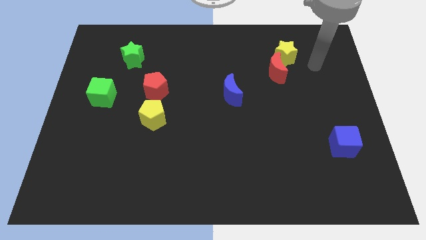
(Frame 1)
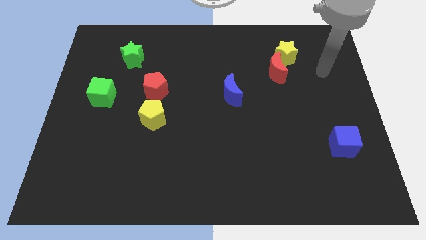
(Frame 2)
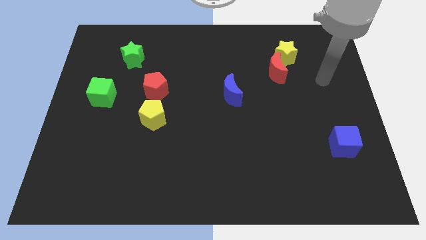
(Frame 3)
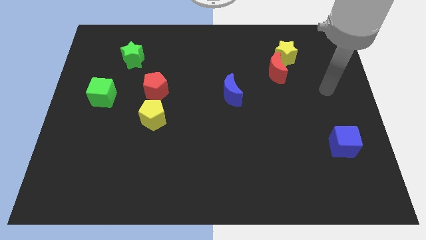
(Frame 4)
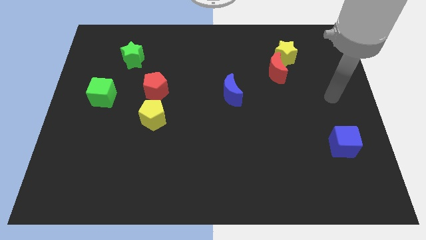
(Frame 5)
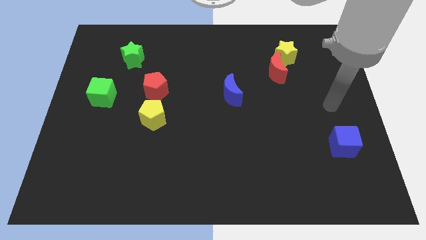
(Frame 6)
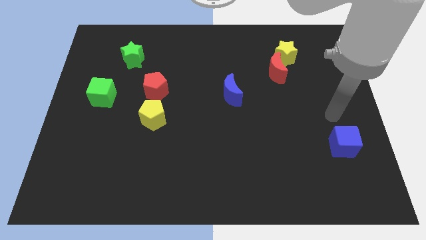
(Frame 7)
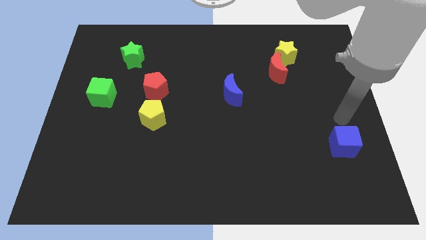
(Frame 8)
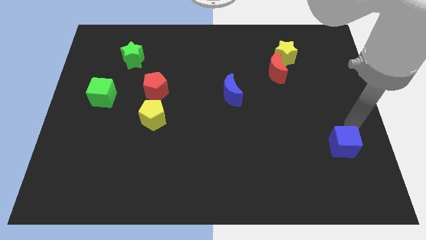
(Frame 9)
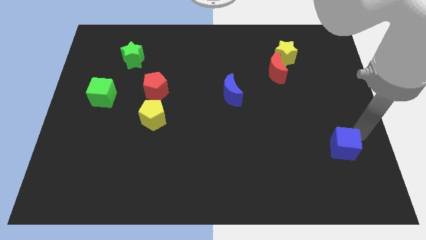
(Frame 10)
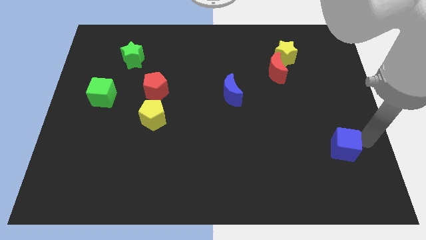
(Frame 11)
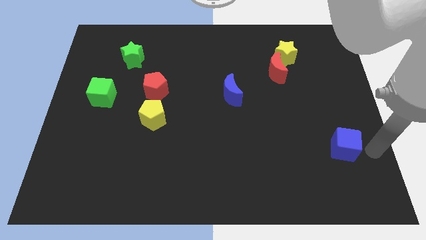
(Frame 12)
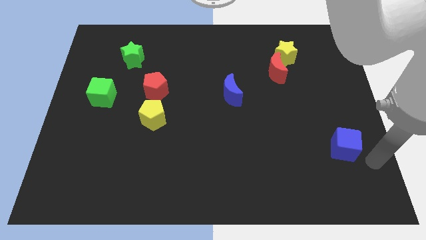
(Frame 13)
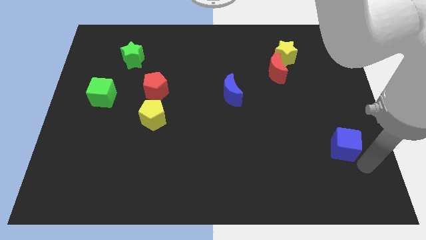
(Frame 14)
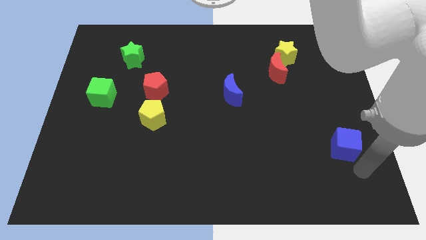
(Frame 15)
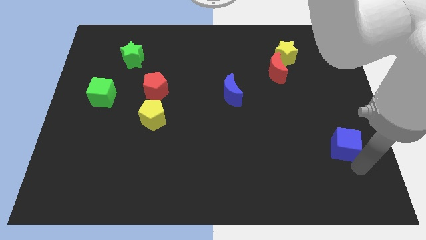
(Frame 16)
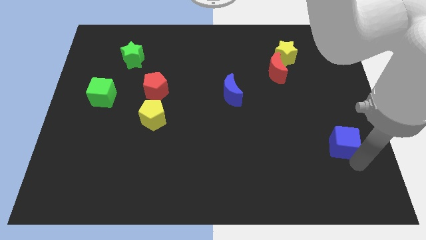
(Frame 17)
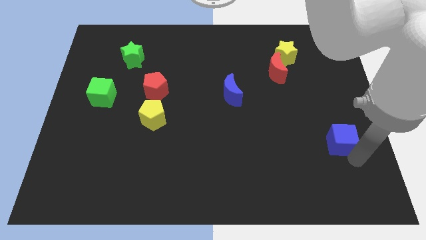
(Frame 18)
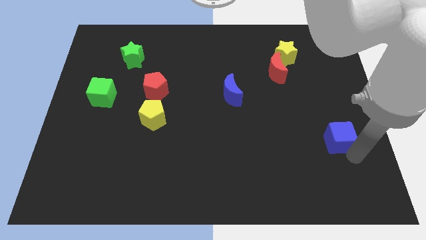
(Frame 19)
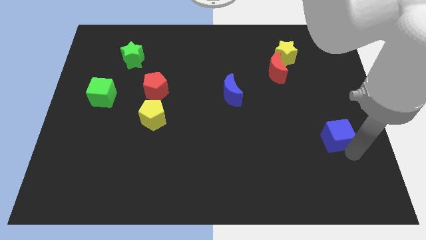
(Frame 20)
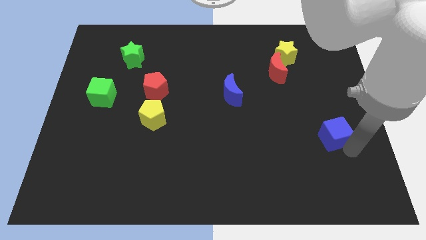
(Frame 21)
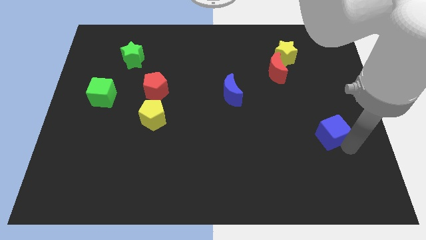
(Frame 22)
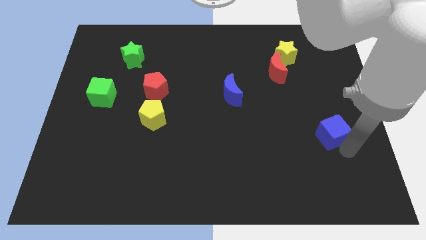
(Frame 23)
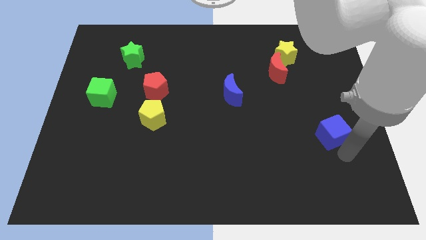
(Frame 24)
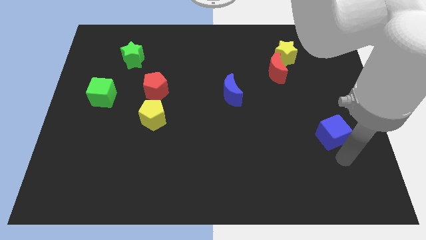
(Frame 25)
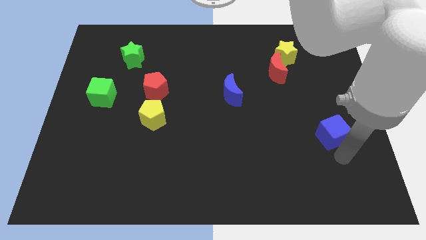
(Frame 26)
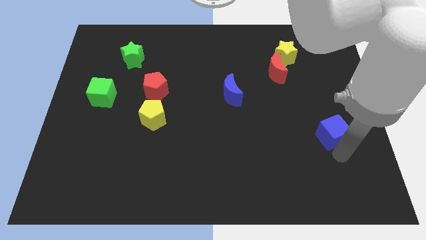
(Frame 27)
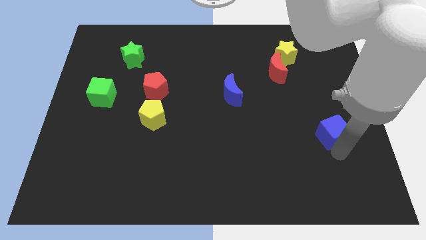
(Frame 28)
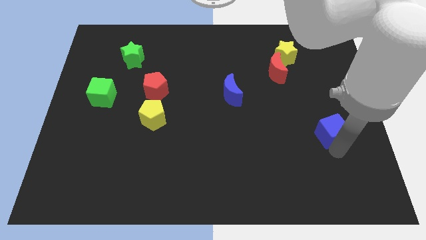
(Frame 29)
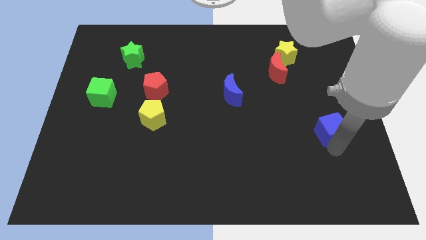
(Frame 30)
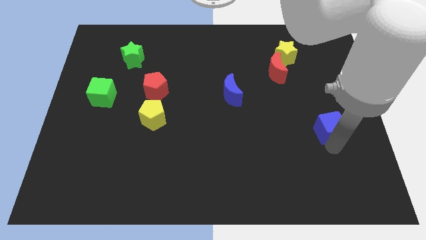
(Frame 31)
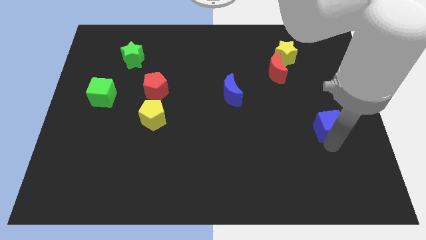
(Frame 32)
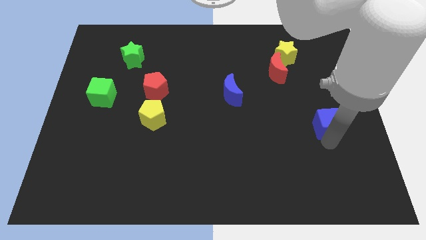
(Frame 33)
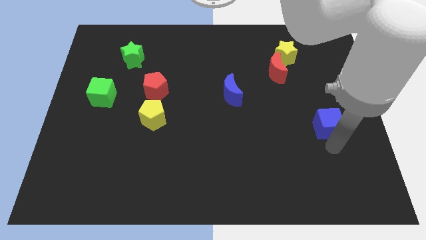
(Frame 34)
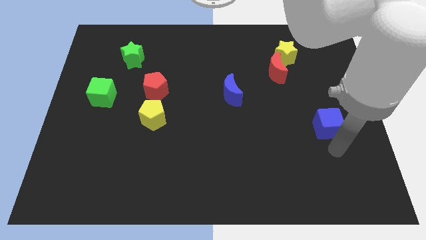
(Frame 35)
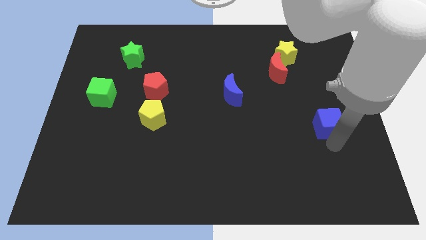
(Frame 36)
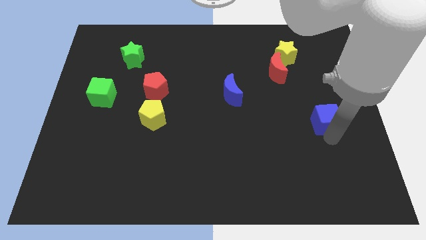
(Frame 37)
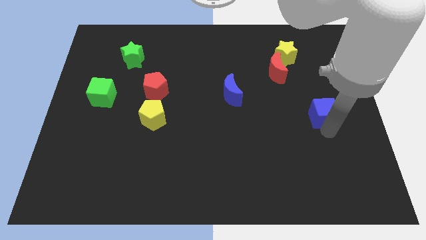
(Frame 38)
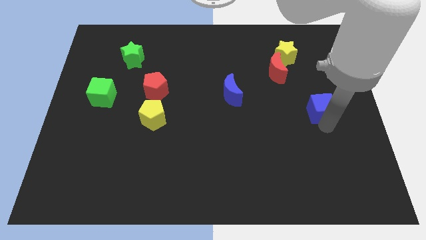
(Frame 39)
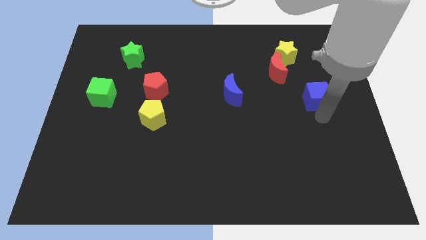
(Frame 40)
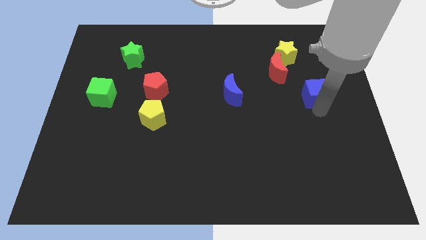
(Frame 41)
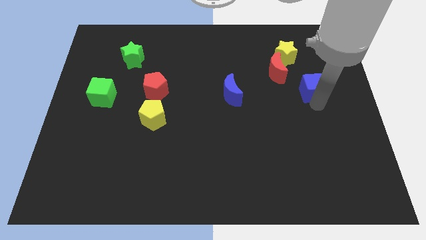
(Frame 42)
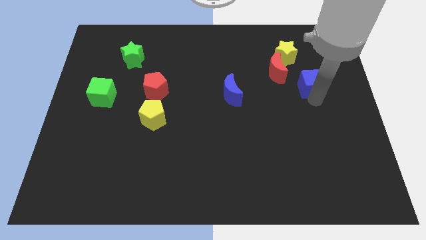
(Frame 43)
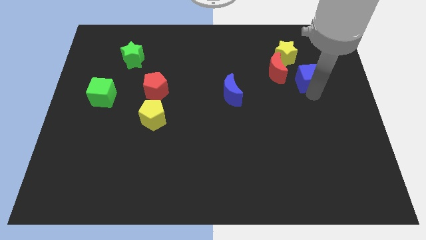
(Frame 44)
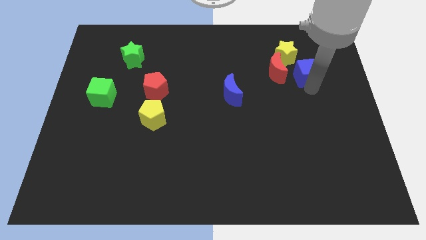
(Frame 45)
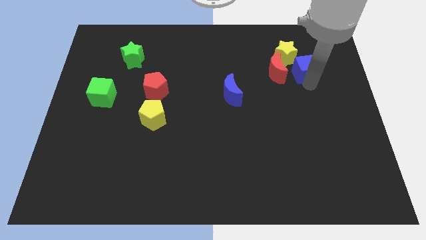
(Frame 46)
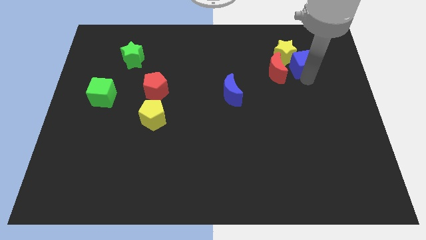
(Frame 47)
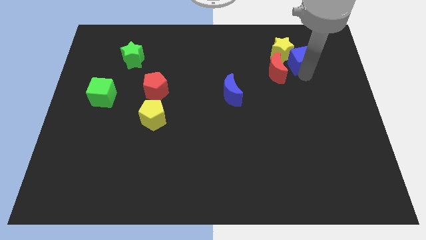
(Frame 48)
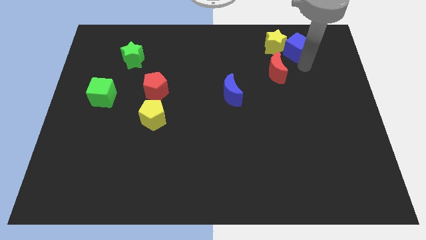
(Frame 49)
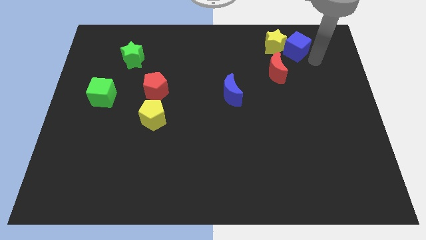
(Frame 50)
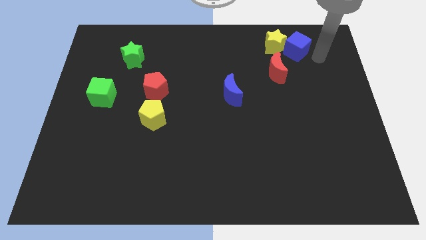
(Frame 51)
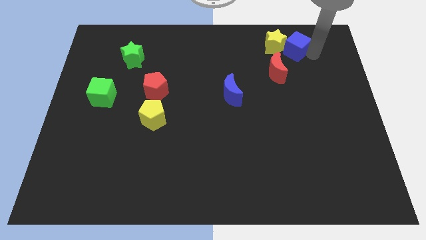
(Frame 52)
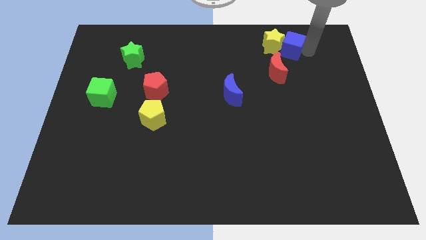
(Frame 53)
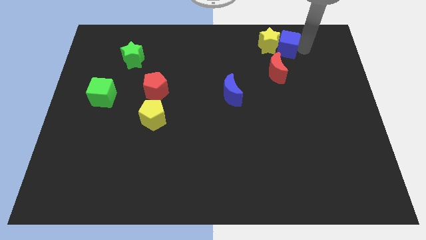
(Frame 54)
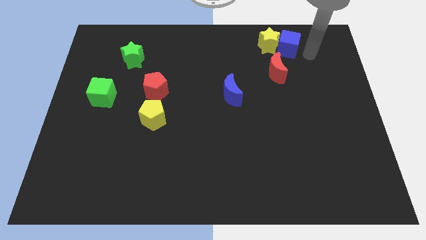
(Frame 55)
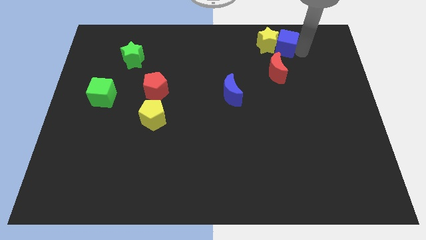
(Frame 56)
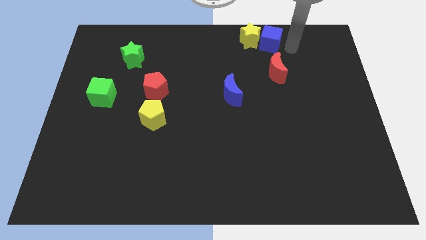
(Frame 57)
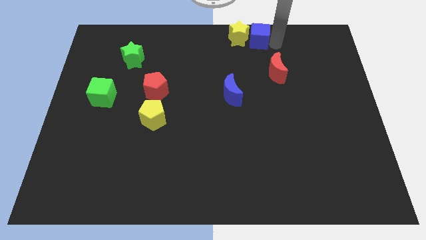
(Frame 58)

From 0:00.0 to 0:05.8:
move the blue cube to the top side

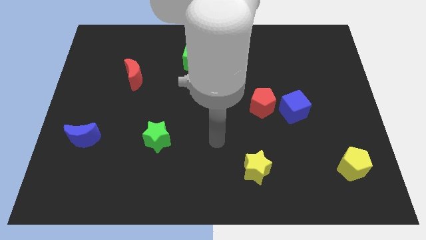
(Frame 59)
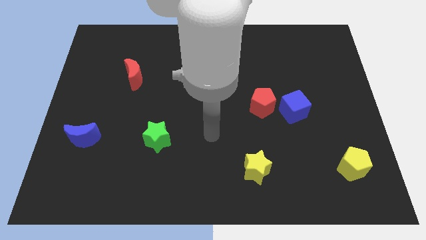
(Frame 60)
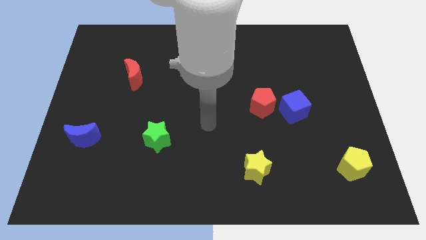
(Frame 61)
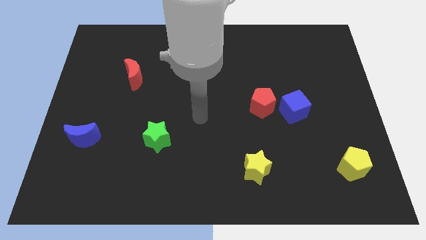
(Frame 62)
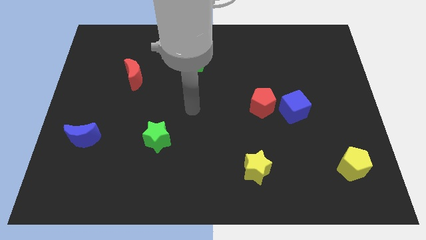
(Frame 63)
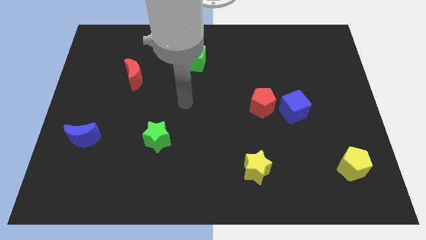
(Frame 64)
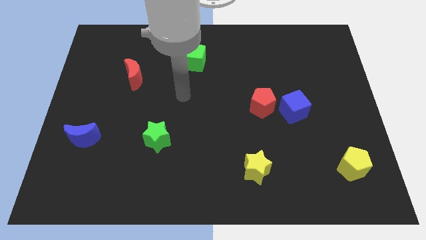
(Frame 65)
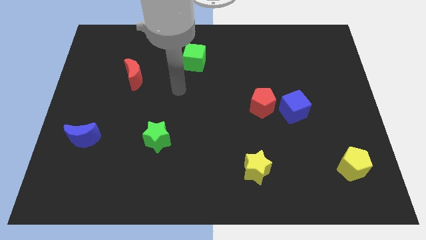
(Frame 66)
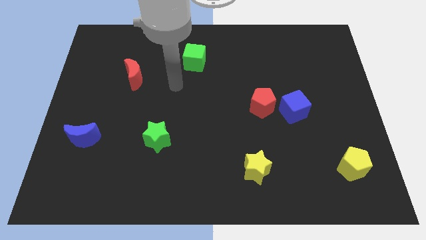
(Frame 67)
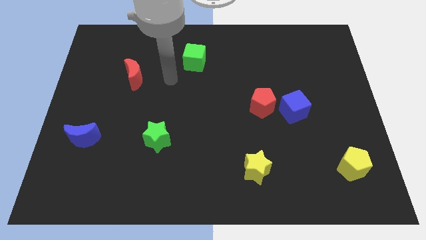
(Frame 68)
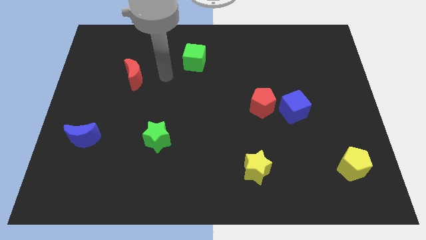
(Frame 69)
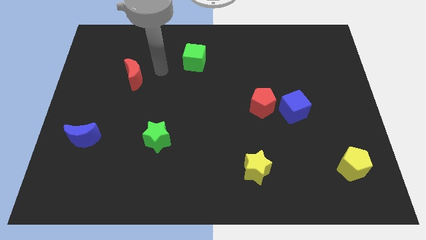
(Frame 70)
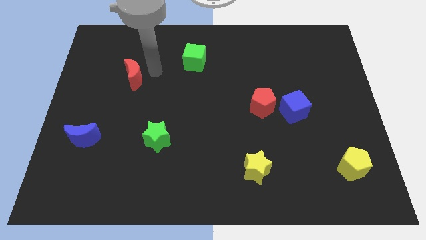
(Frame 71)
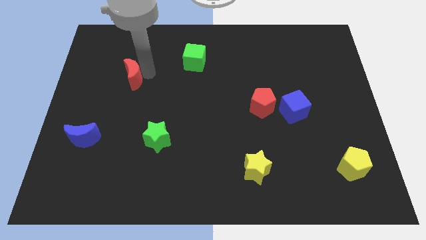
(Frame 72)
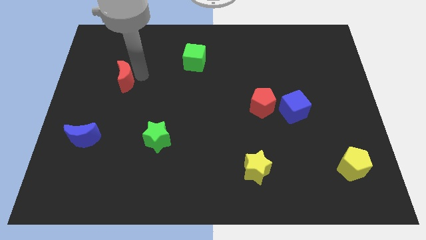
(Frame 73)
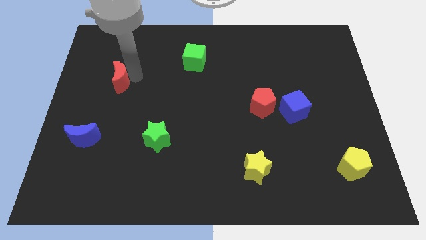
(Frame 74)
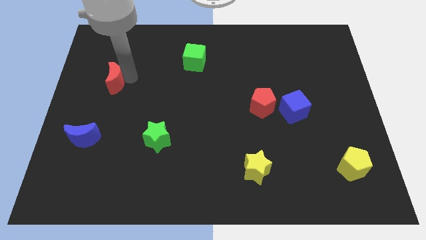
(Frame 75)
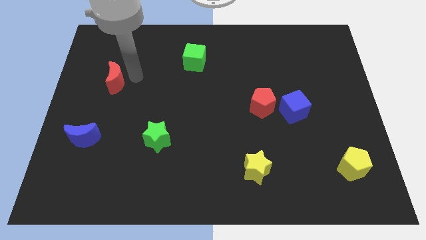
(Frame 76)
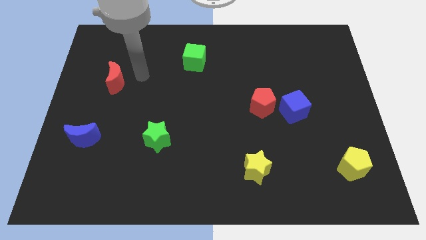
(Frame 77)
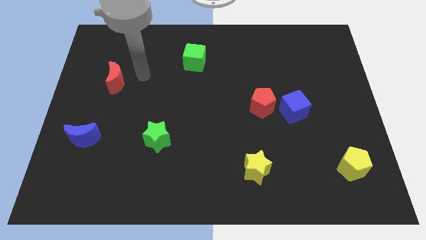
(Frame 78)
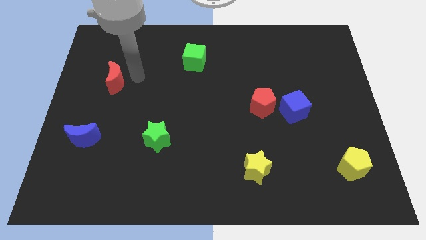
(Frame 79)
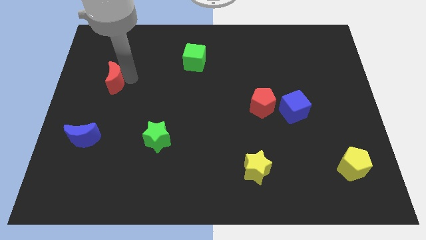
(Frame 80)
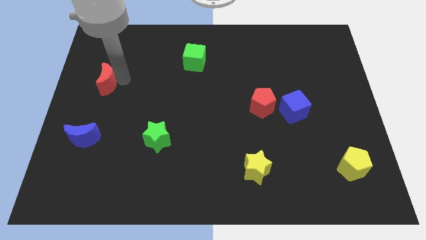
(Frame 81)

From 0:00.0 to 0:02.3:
slide the red moon to the center left
